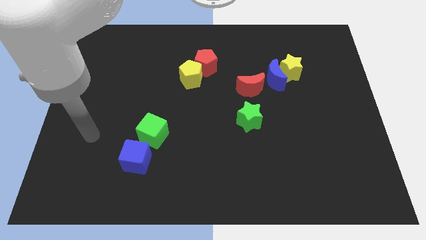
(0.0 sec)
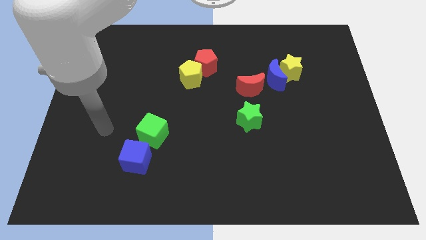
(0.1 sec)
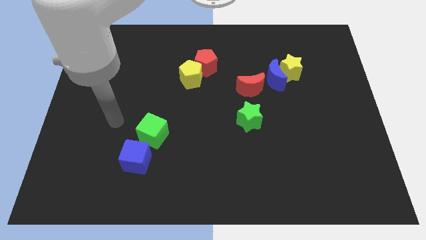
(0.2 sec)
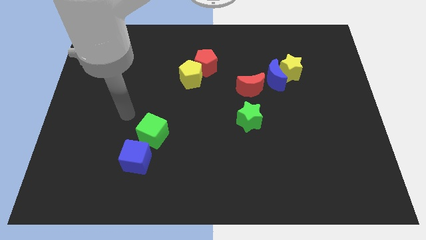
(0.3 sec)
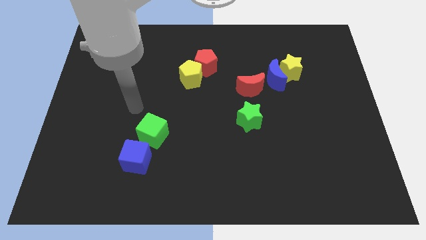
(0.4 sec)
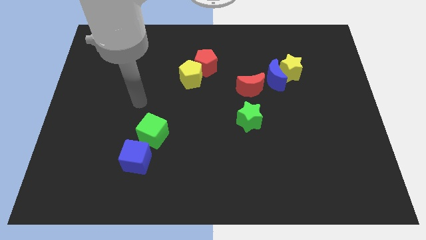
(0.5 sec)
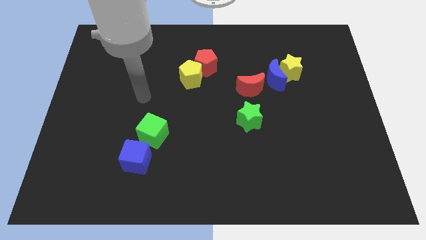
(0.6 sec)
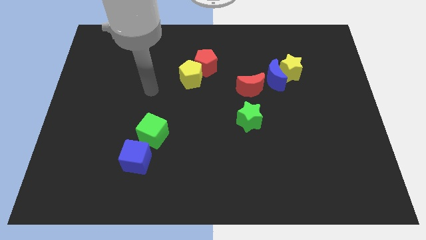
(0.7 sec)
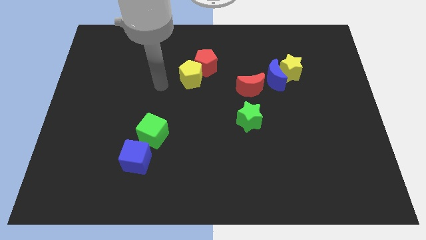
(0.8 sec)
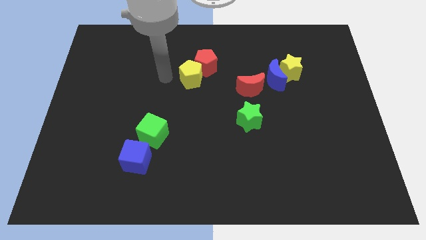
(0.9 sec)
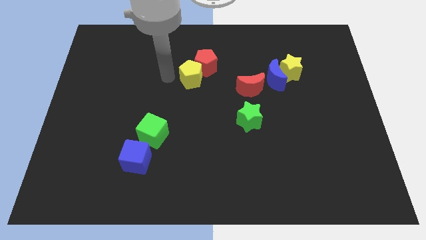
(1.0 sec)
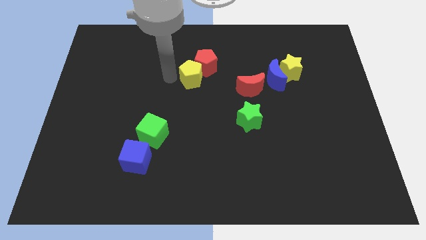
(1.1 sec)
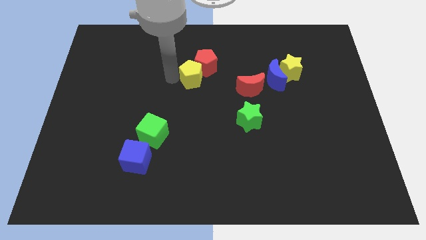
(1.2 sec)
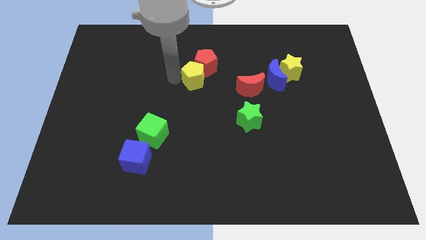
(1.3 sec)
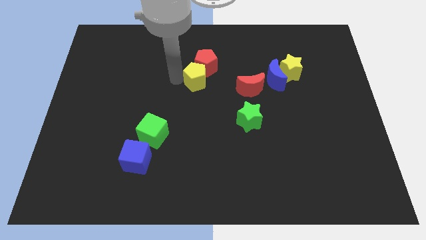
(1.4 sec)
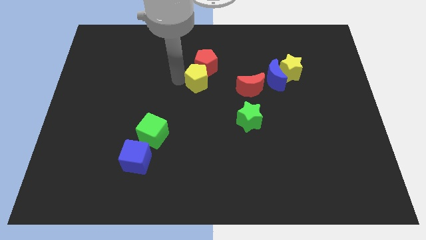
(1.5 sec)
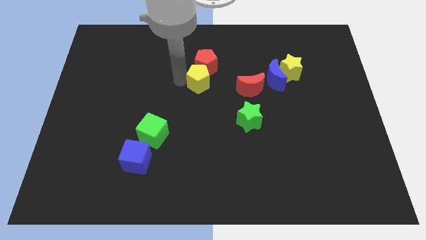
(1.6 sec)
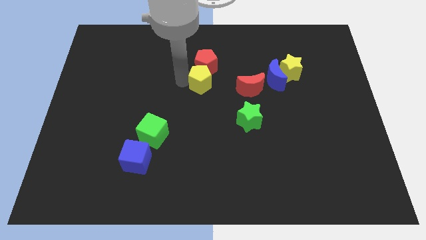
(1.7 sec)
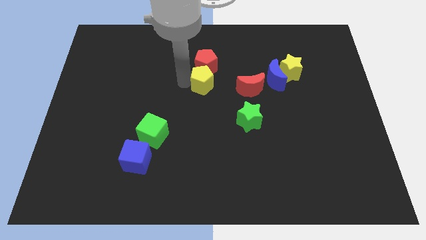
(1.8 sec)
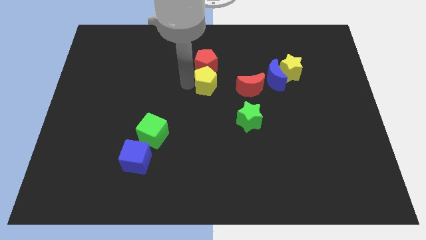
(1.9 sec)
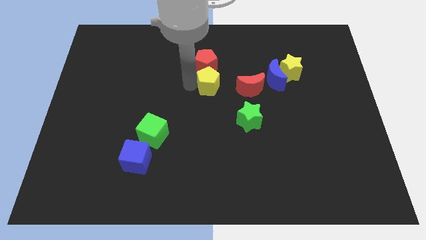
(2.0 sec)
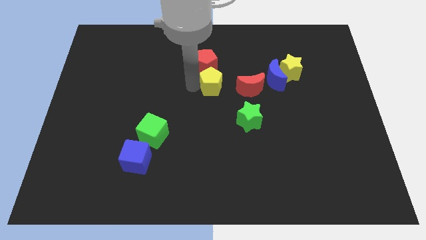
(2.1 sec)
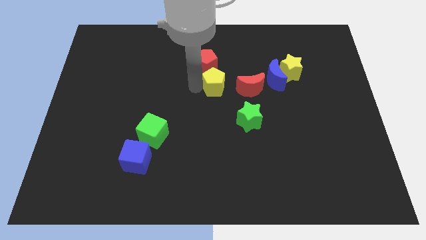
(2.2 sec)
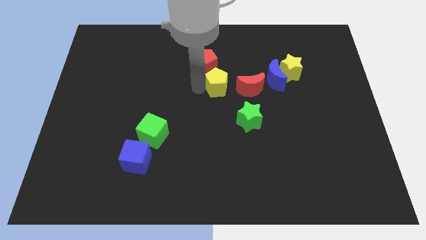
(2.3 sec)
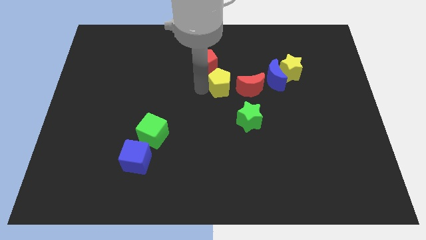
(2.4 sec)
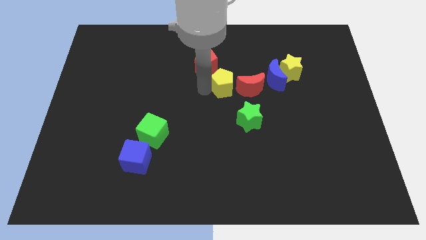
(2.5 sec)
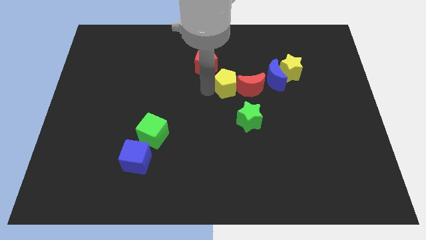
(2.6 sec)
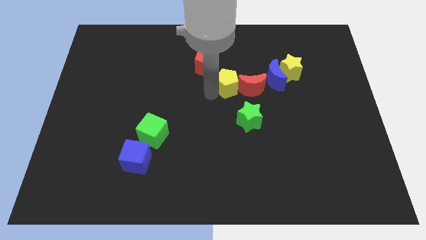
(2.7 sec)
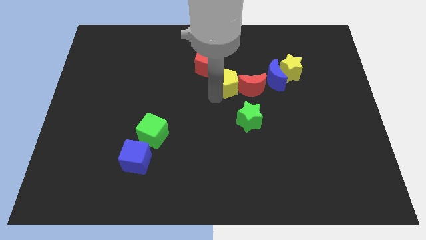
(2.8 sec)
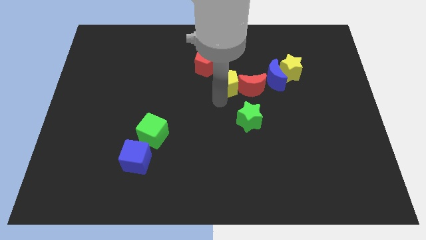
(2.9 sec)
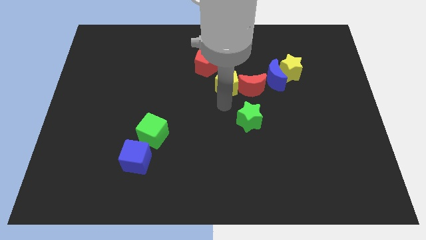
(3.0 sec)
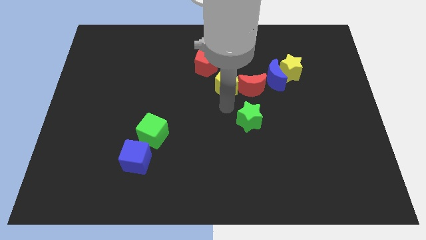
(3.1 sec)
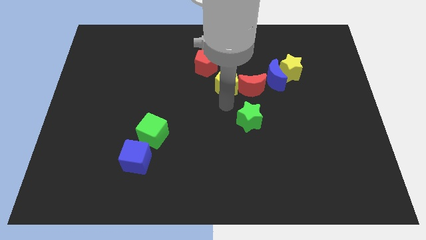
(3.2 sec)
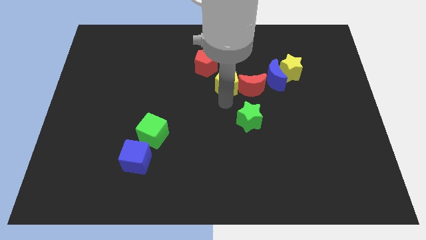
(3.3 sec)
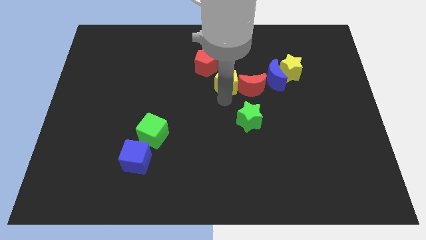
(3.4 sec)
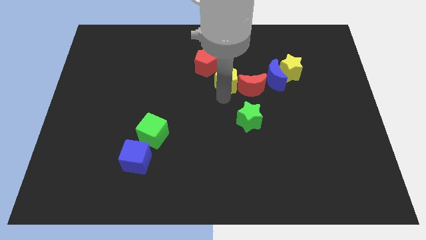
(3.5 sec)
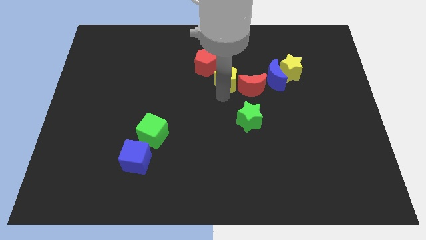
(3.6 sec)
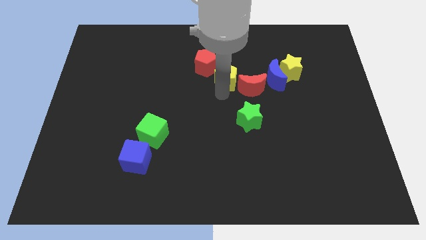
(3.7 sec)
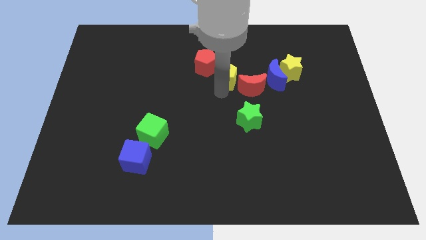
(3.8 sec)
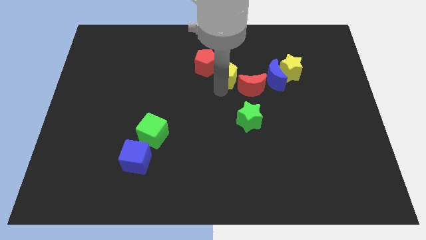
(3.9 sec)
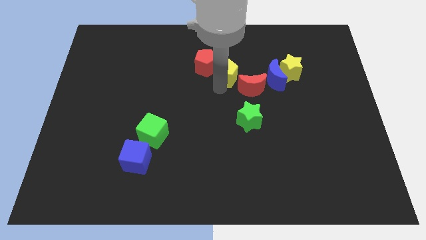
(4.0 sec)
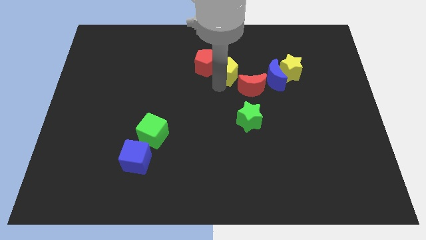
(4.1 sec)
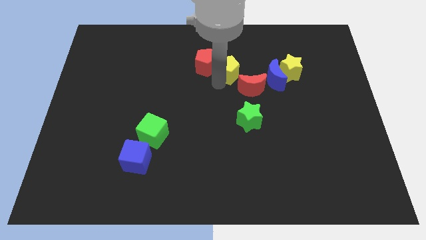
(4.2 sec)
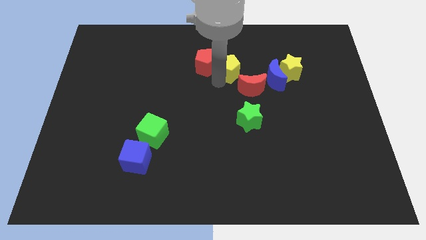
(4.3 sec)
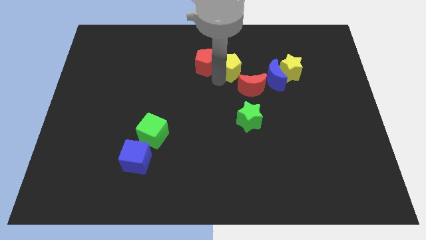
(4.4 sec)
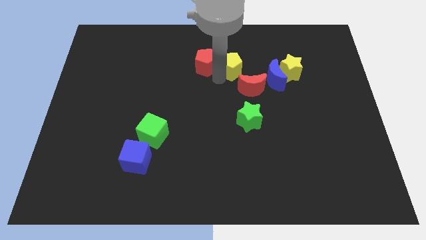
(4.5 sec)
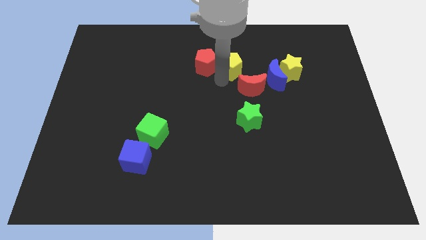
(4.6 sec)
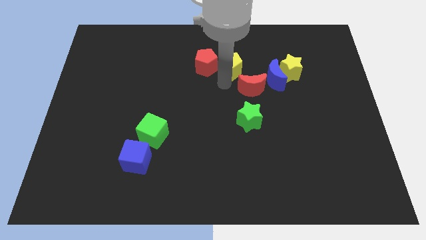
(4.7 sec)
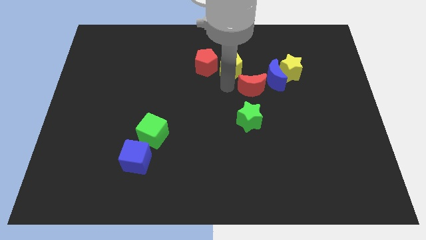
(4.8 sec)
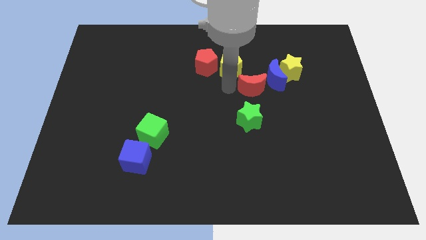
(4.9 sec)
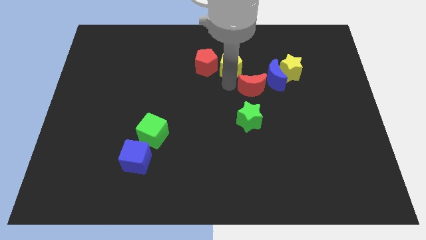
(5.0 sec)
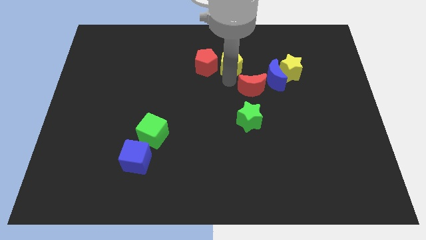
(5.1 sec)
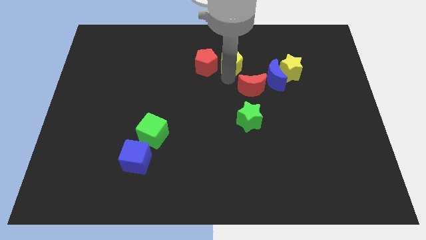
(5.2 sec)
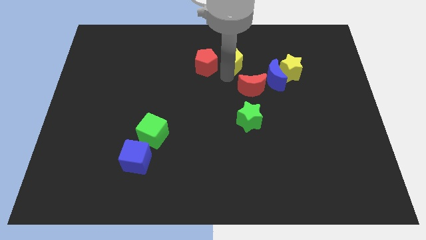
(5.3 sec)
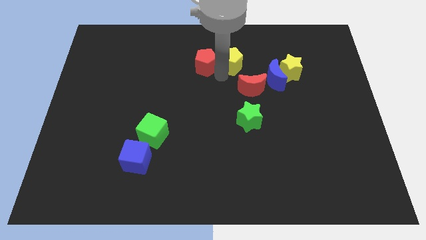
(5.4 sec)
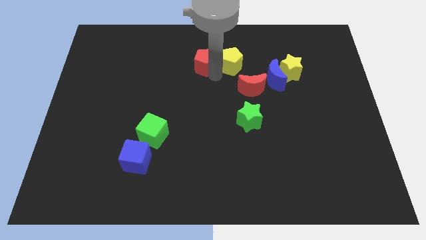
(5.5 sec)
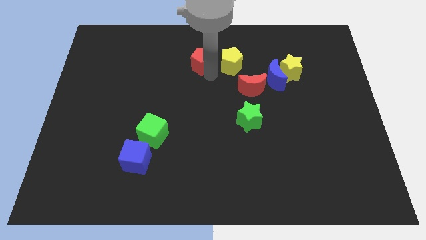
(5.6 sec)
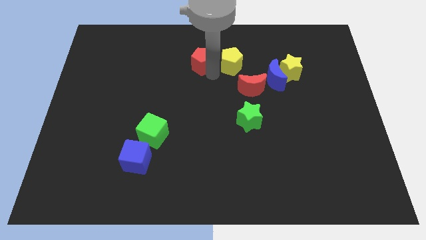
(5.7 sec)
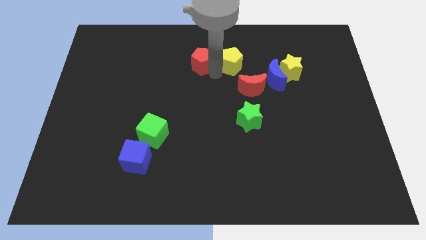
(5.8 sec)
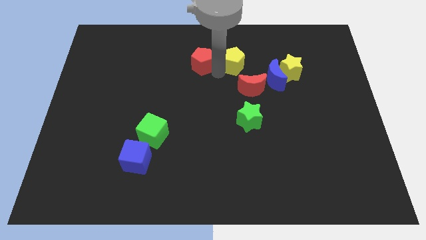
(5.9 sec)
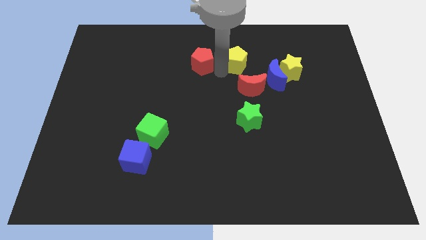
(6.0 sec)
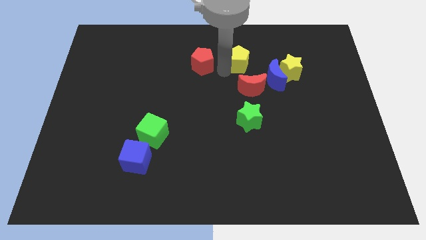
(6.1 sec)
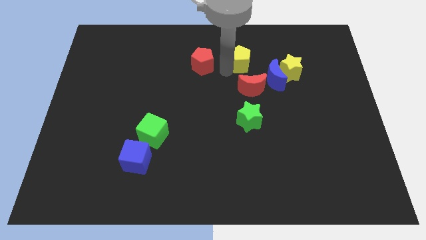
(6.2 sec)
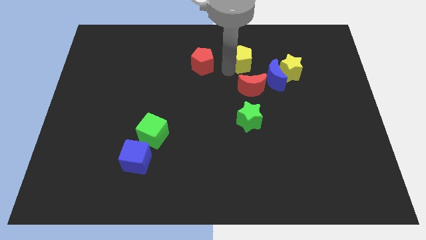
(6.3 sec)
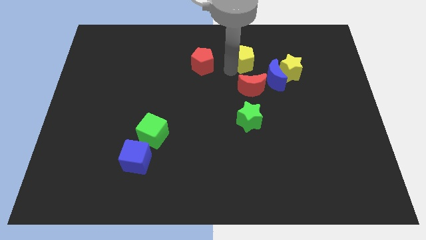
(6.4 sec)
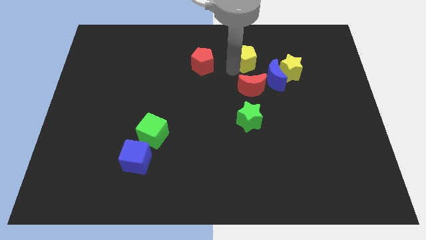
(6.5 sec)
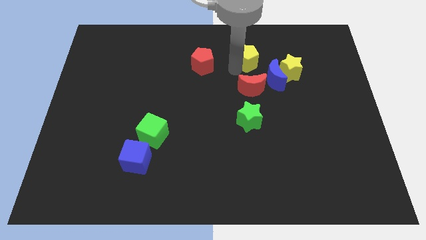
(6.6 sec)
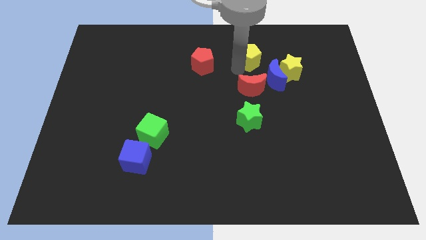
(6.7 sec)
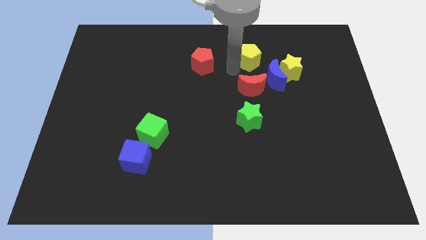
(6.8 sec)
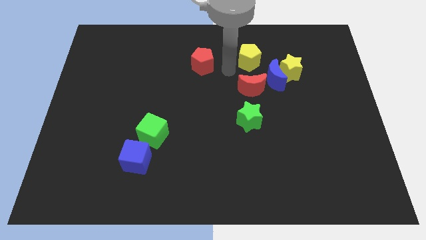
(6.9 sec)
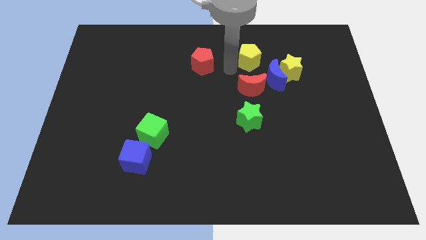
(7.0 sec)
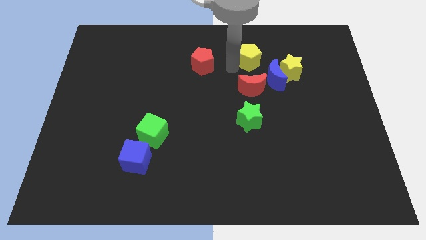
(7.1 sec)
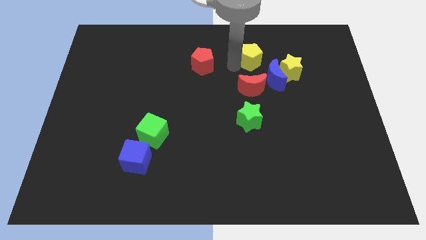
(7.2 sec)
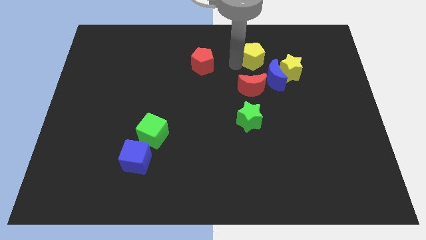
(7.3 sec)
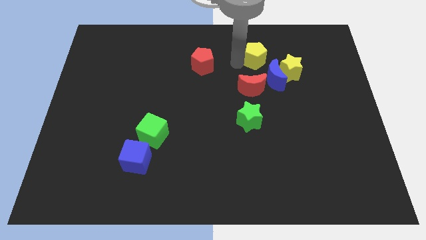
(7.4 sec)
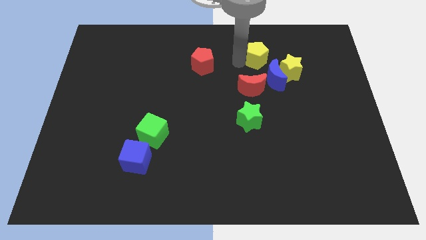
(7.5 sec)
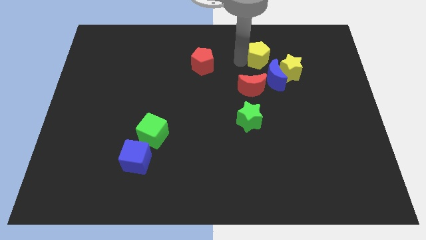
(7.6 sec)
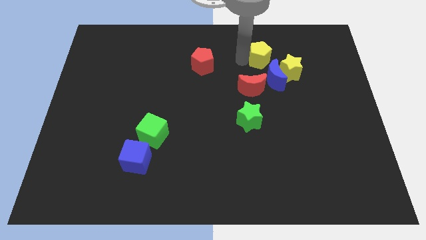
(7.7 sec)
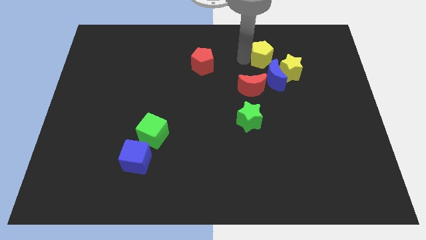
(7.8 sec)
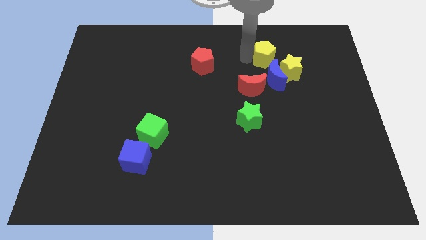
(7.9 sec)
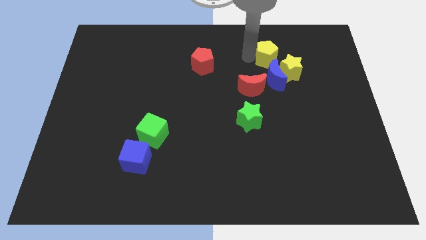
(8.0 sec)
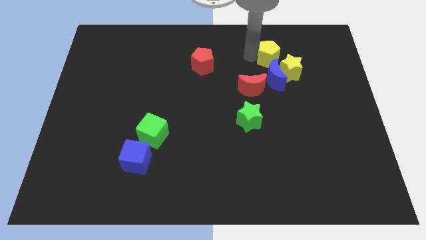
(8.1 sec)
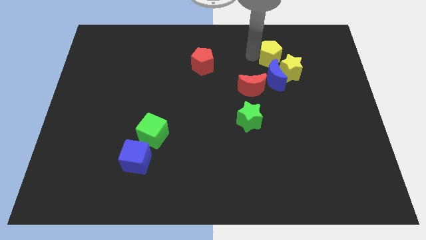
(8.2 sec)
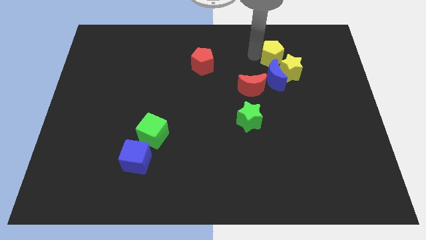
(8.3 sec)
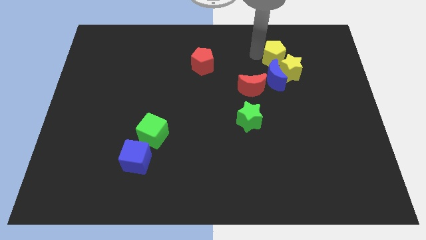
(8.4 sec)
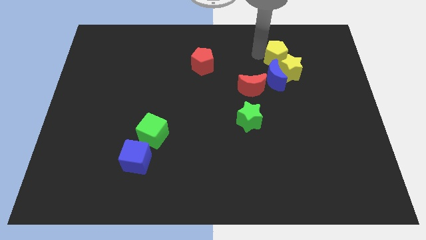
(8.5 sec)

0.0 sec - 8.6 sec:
move the yellow pentagon right
